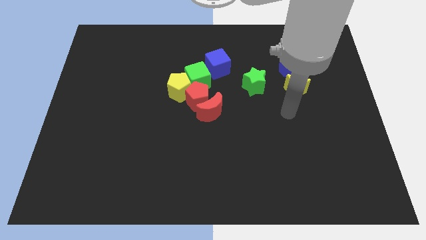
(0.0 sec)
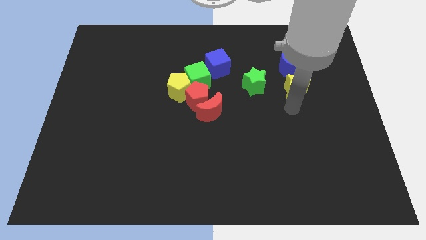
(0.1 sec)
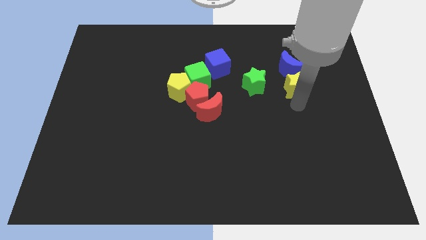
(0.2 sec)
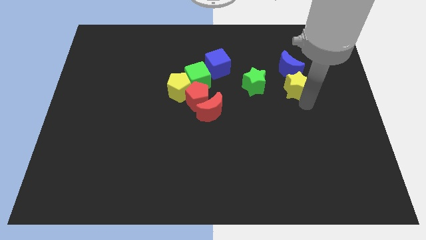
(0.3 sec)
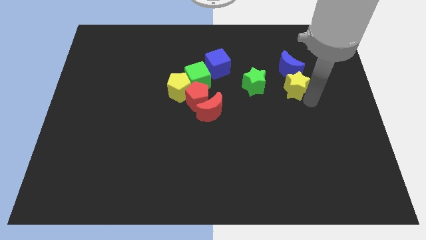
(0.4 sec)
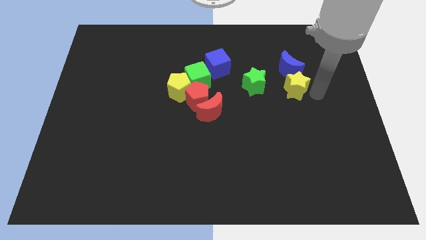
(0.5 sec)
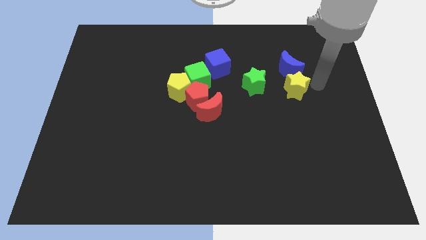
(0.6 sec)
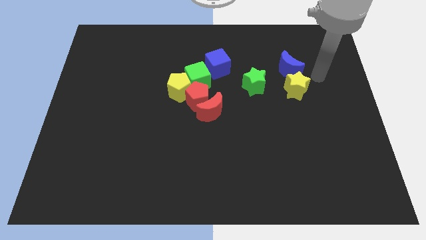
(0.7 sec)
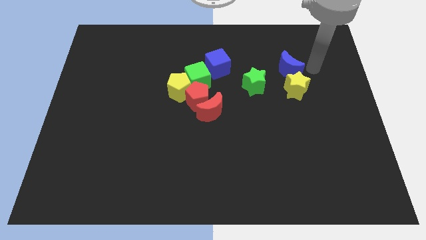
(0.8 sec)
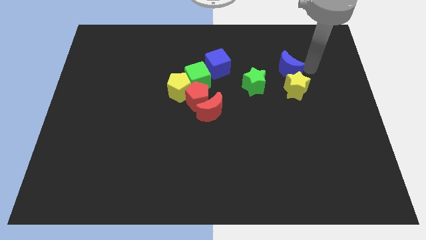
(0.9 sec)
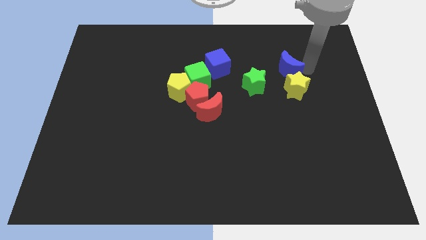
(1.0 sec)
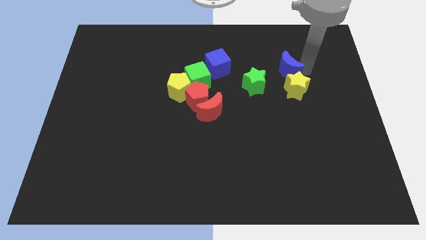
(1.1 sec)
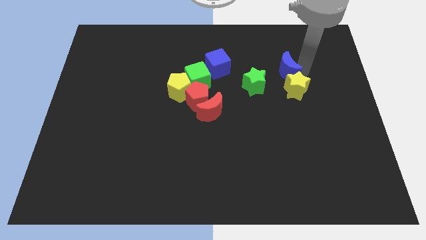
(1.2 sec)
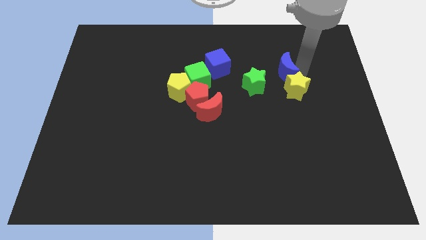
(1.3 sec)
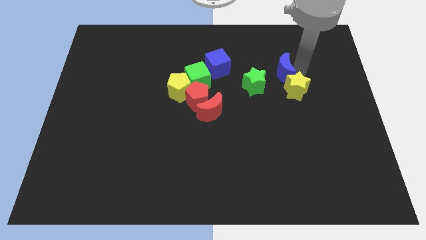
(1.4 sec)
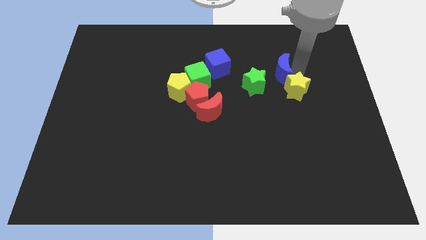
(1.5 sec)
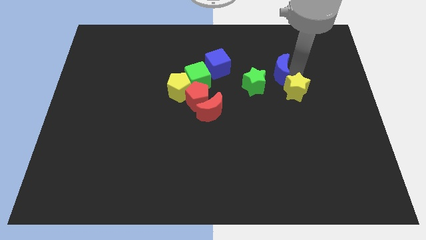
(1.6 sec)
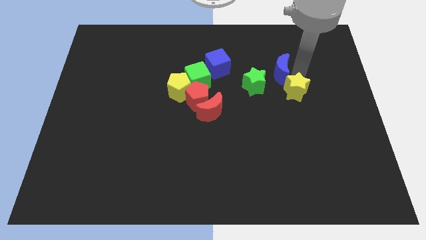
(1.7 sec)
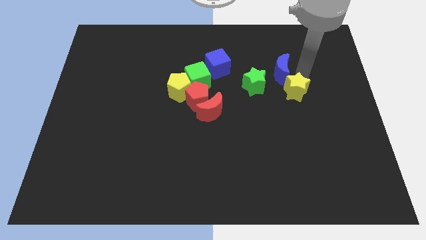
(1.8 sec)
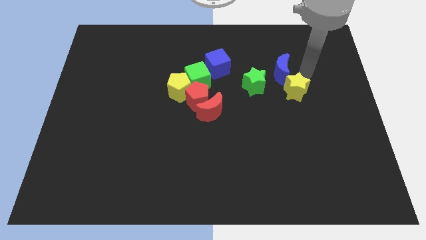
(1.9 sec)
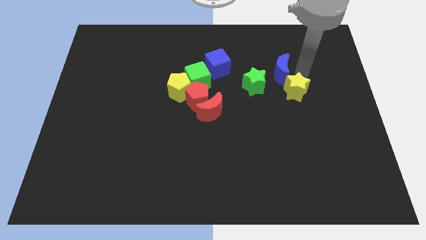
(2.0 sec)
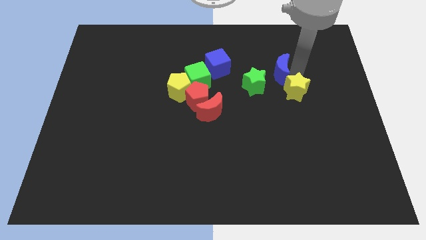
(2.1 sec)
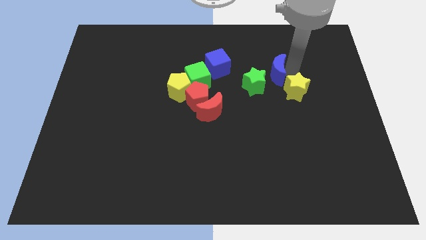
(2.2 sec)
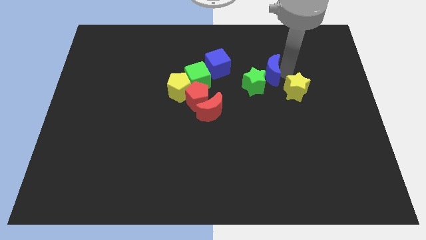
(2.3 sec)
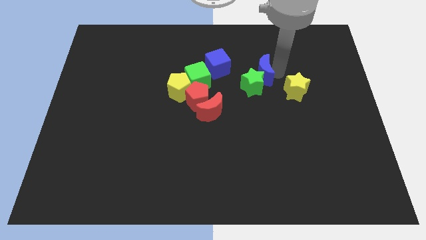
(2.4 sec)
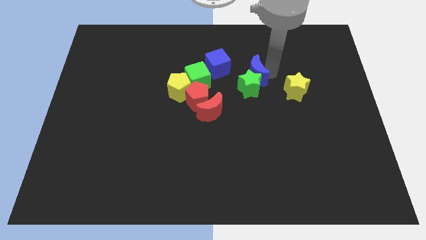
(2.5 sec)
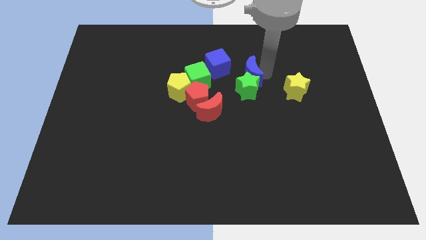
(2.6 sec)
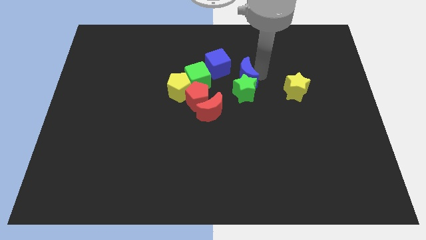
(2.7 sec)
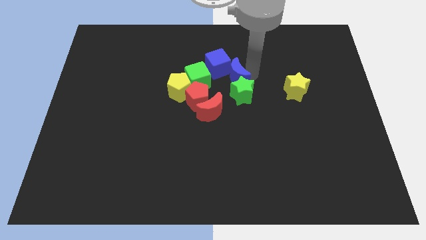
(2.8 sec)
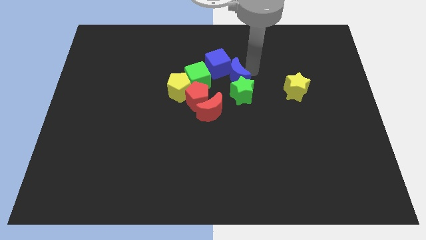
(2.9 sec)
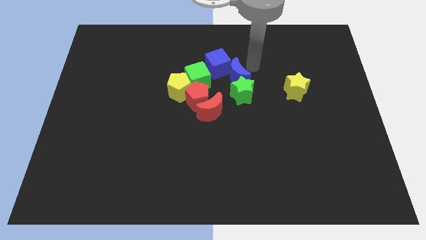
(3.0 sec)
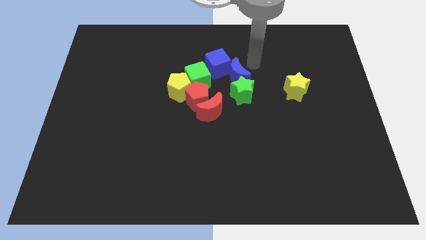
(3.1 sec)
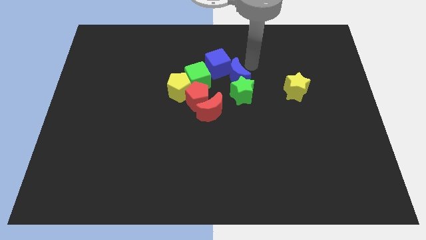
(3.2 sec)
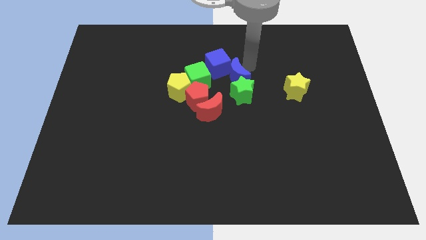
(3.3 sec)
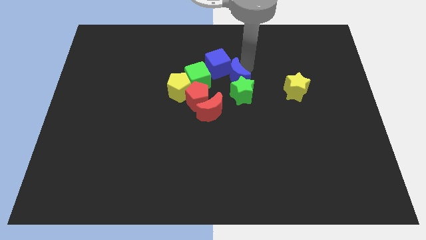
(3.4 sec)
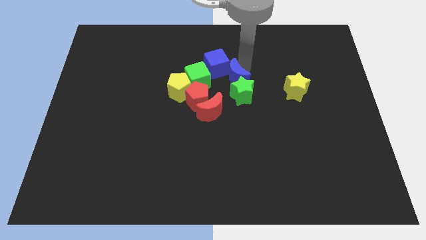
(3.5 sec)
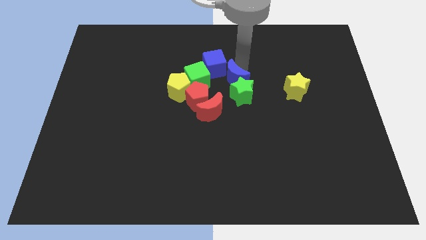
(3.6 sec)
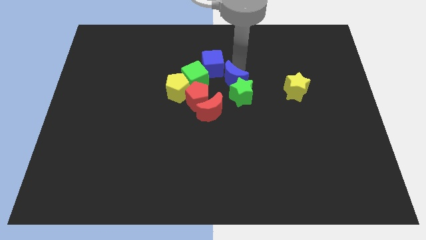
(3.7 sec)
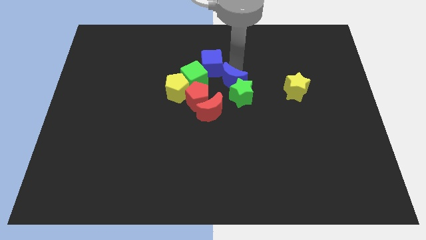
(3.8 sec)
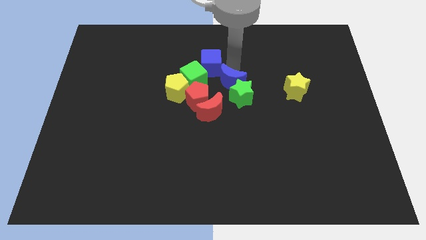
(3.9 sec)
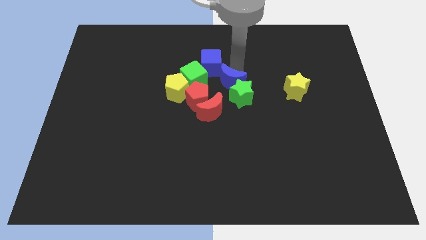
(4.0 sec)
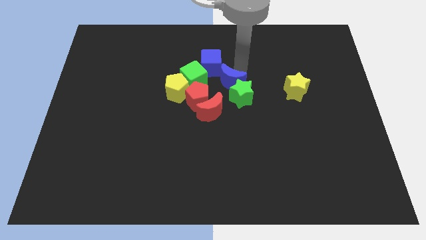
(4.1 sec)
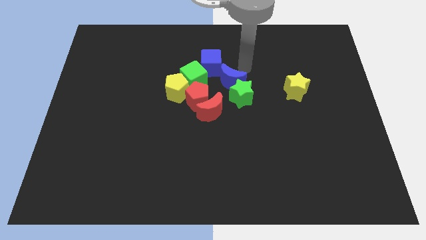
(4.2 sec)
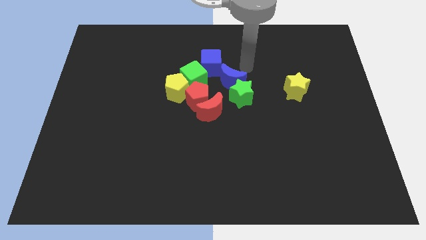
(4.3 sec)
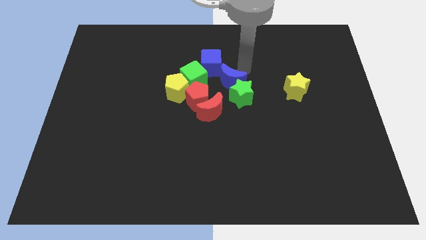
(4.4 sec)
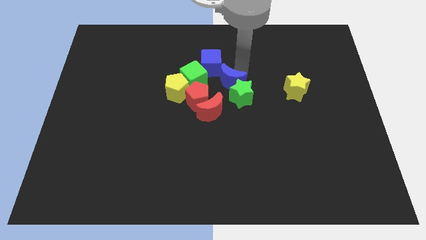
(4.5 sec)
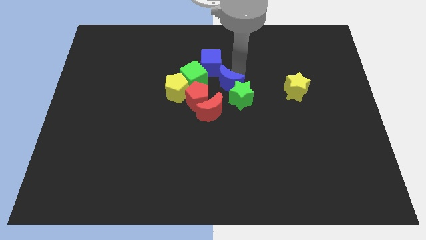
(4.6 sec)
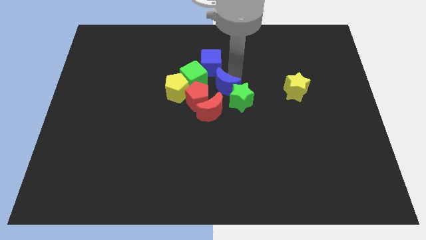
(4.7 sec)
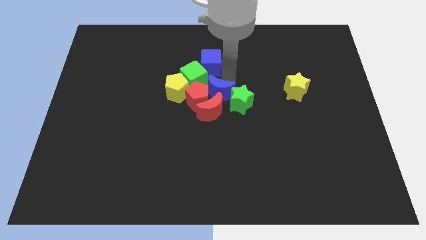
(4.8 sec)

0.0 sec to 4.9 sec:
slide the blue moon to the red moon

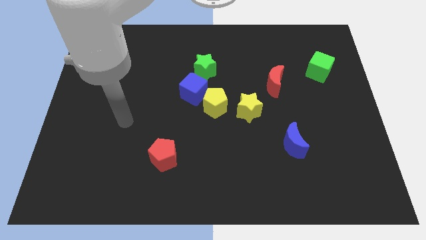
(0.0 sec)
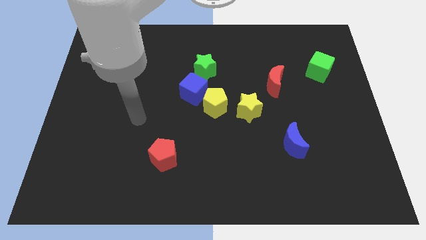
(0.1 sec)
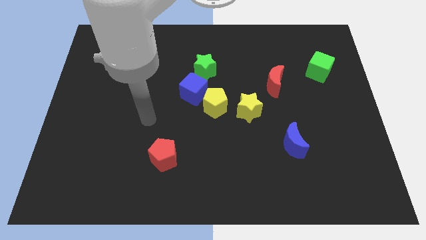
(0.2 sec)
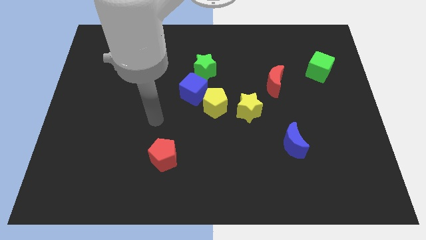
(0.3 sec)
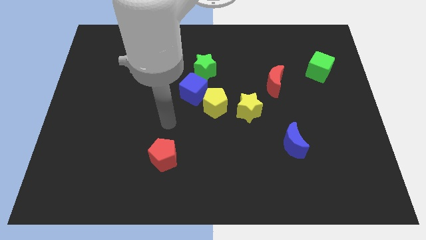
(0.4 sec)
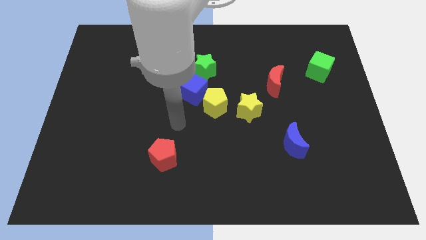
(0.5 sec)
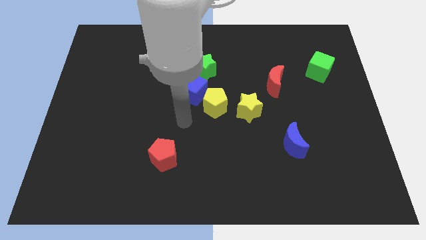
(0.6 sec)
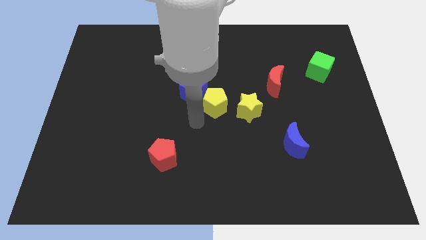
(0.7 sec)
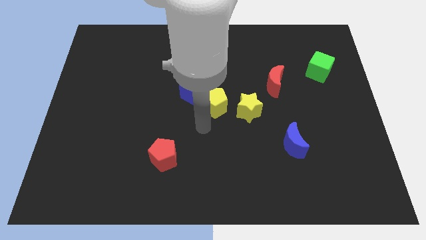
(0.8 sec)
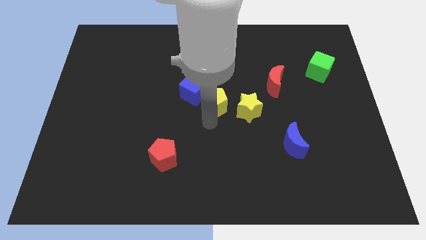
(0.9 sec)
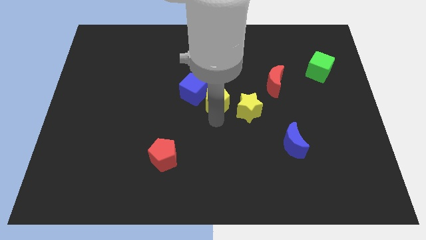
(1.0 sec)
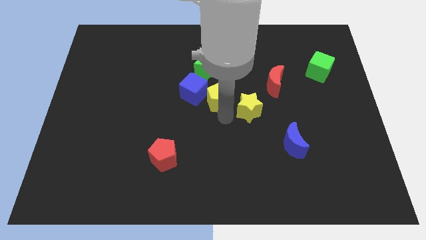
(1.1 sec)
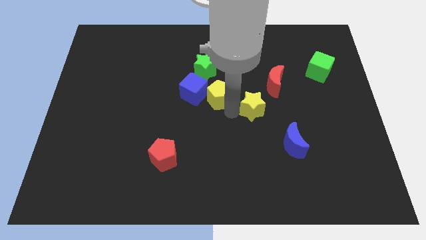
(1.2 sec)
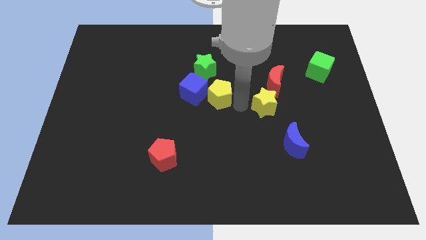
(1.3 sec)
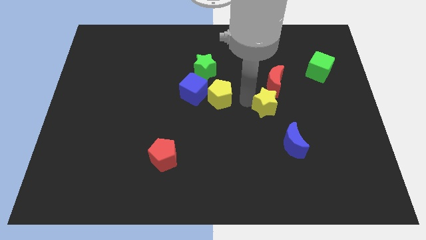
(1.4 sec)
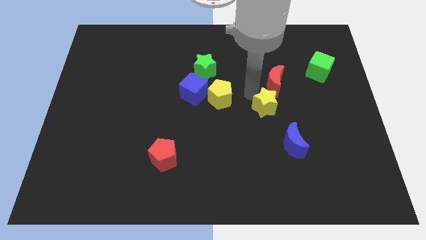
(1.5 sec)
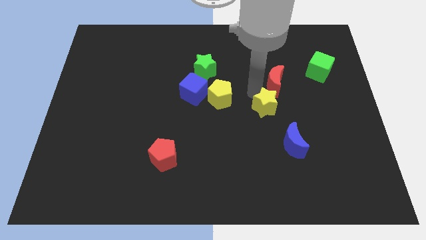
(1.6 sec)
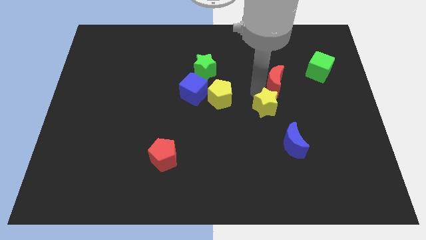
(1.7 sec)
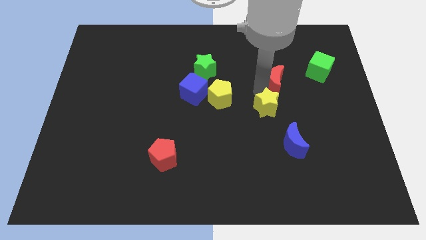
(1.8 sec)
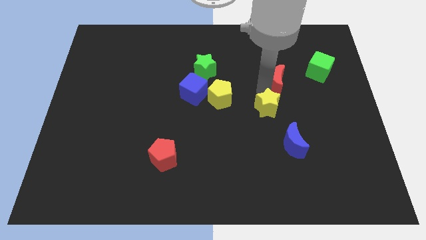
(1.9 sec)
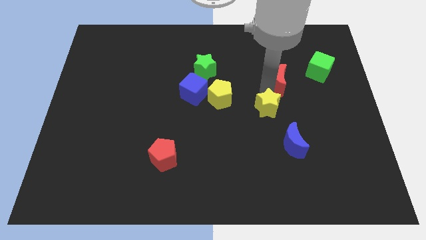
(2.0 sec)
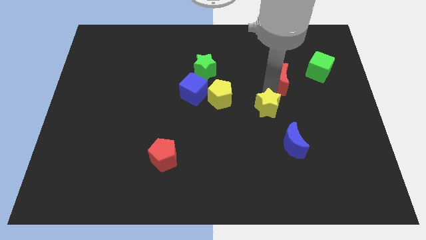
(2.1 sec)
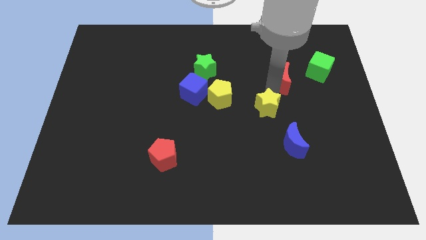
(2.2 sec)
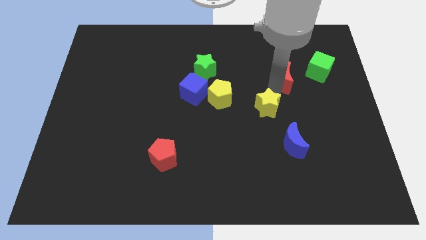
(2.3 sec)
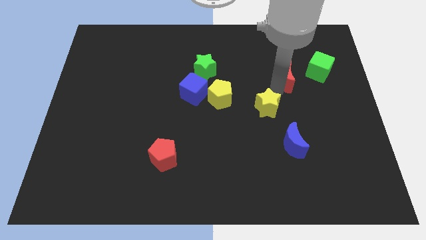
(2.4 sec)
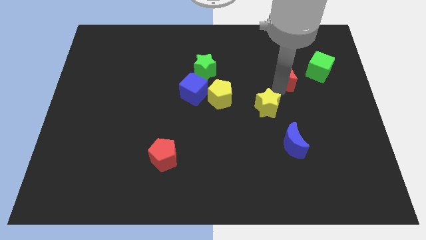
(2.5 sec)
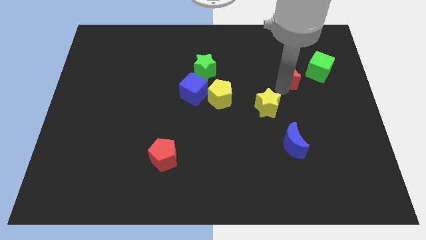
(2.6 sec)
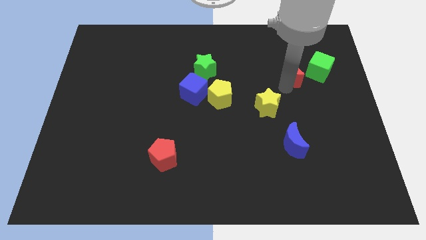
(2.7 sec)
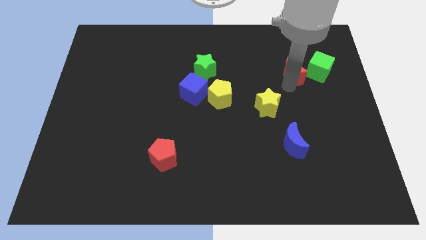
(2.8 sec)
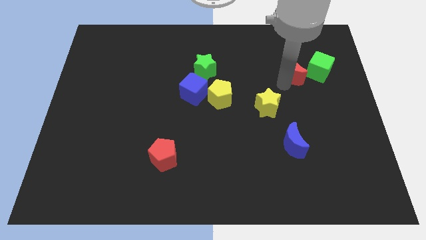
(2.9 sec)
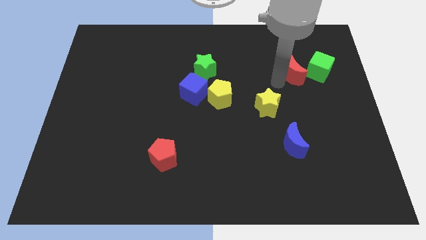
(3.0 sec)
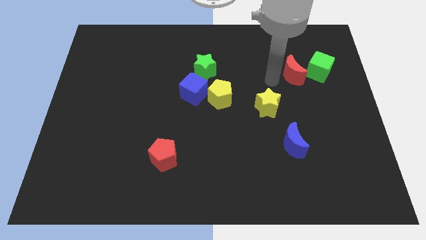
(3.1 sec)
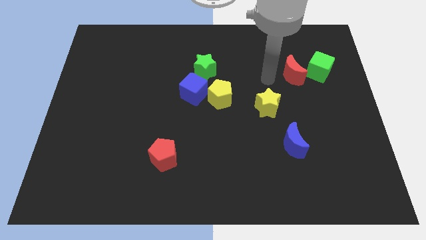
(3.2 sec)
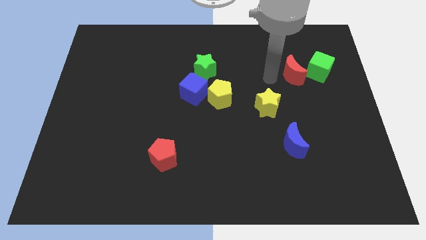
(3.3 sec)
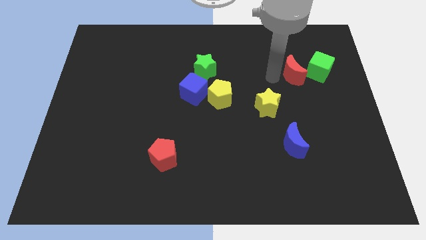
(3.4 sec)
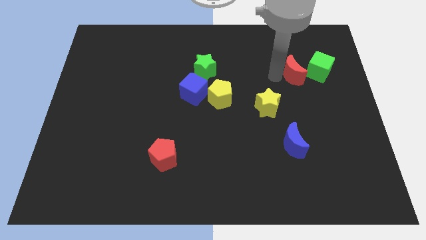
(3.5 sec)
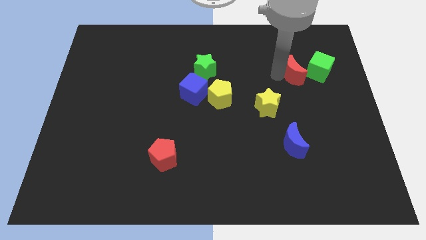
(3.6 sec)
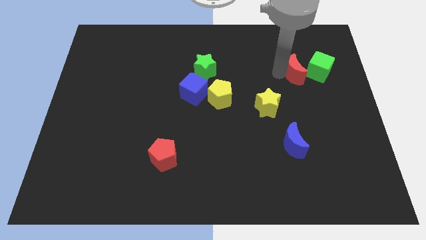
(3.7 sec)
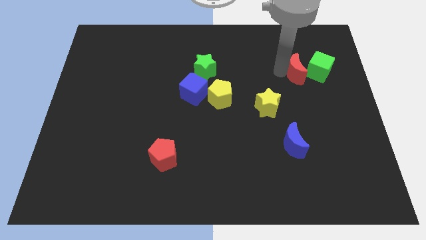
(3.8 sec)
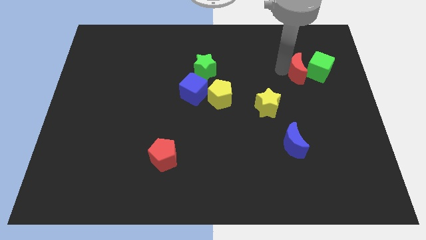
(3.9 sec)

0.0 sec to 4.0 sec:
push the red moon next to the green cube
